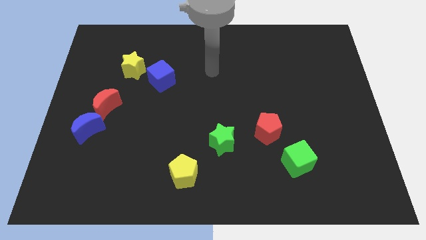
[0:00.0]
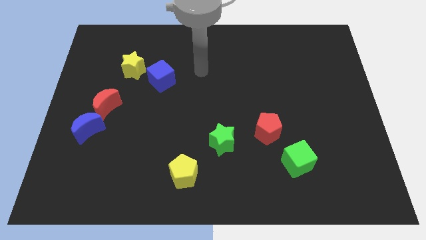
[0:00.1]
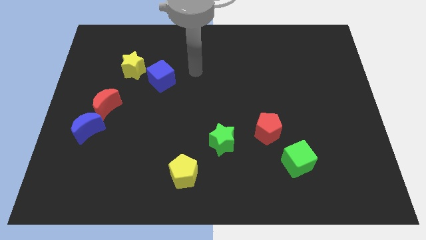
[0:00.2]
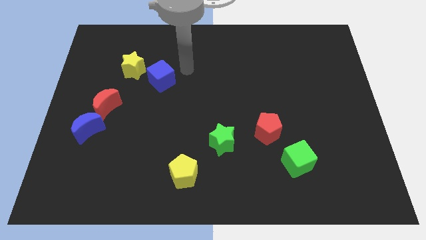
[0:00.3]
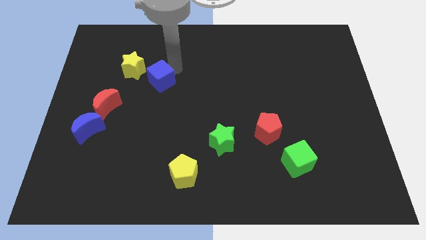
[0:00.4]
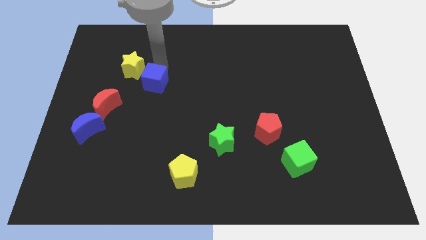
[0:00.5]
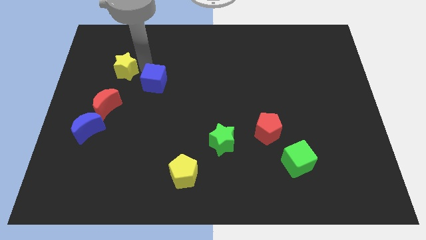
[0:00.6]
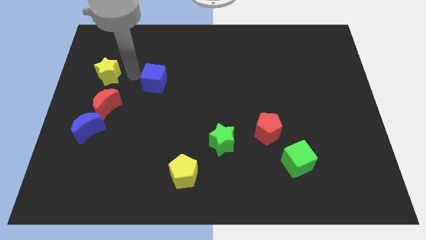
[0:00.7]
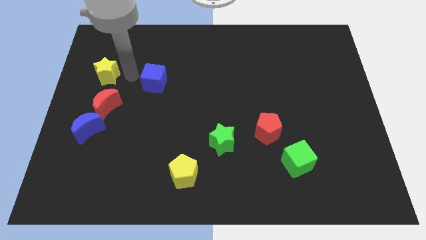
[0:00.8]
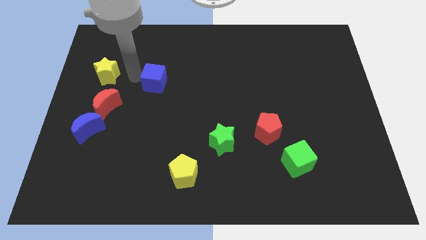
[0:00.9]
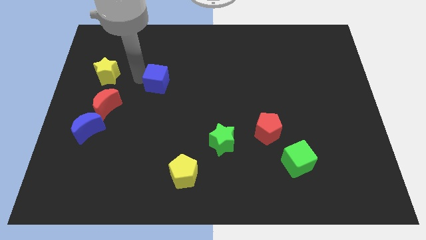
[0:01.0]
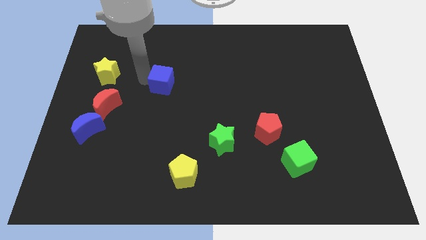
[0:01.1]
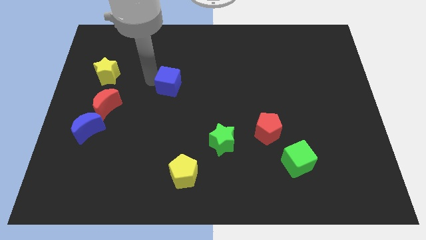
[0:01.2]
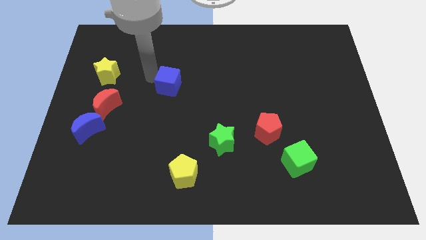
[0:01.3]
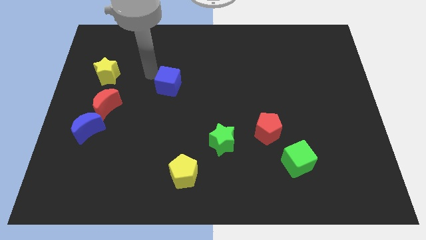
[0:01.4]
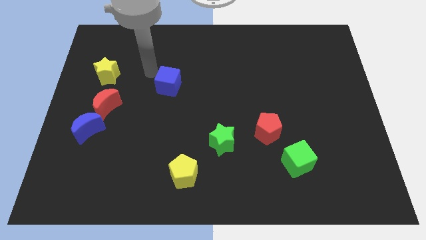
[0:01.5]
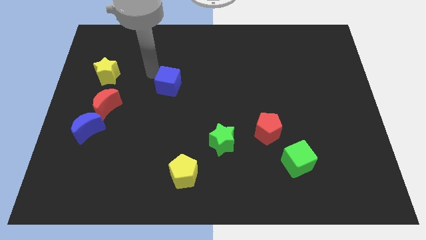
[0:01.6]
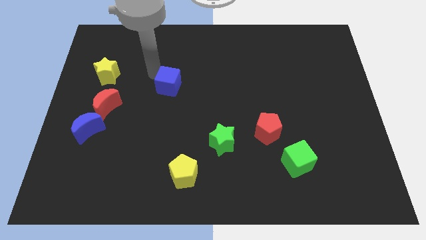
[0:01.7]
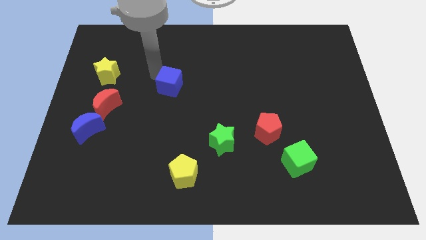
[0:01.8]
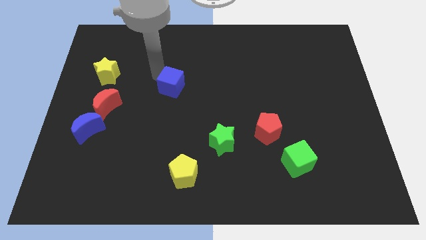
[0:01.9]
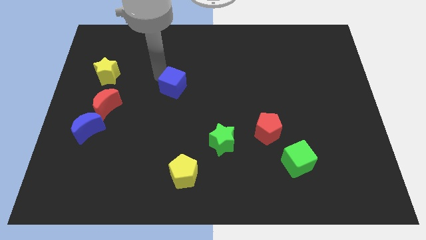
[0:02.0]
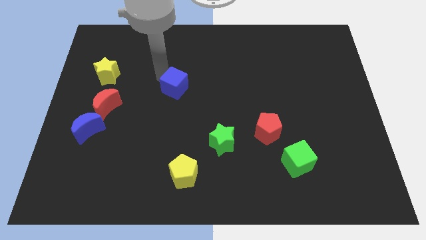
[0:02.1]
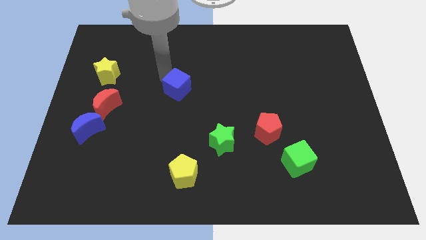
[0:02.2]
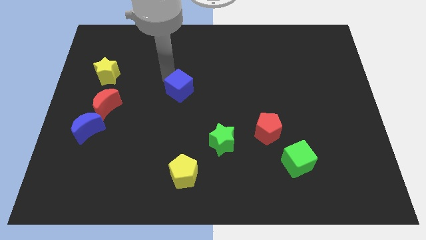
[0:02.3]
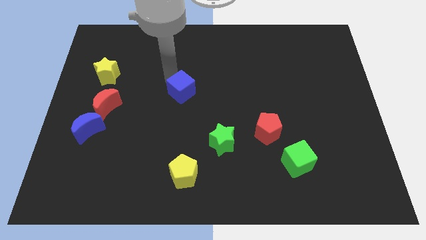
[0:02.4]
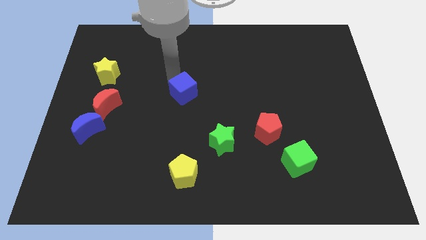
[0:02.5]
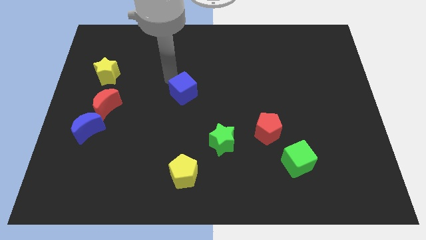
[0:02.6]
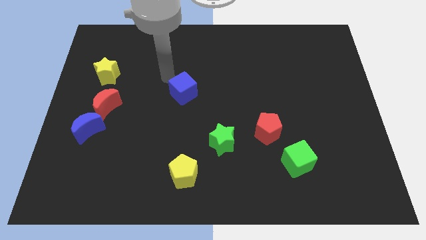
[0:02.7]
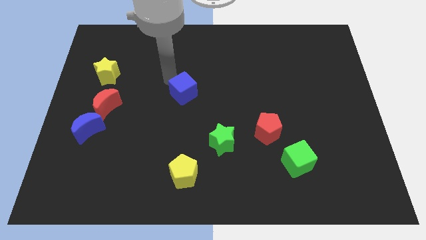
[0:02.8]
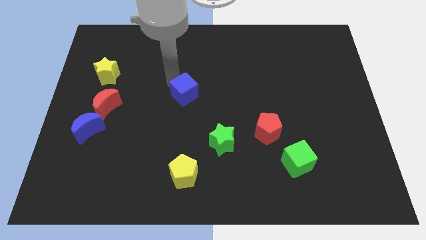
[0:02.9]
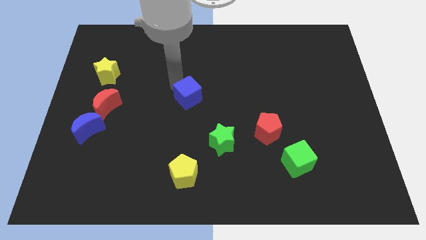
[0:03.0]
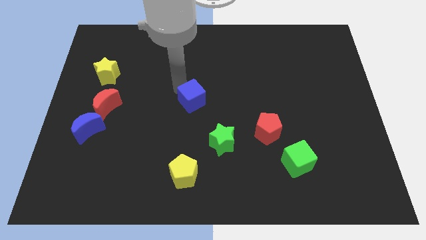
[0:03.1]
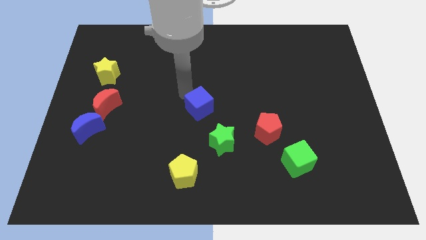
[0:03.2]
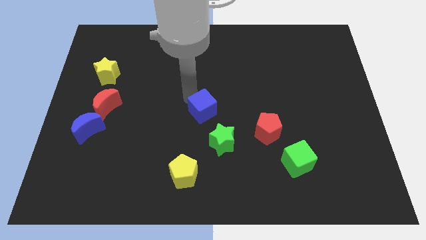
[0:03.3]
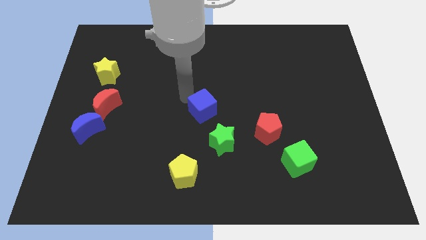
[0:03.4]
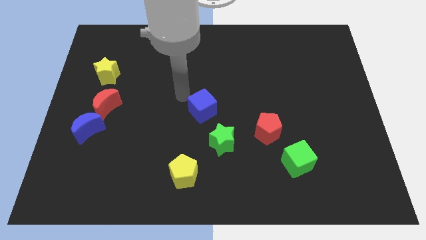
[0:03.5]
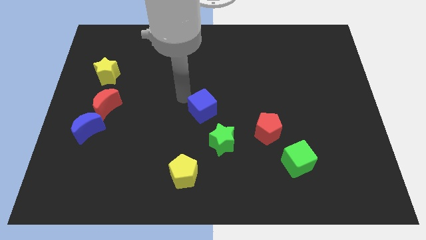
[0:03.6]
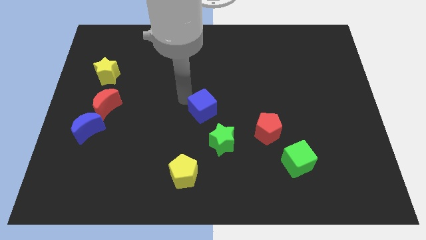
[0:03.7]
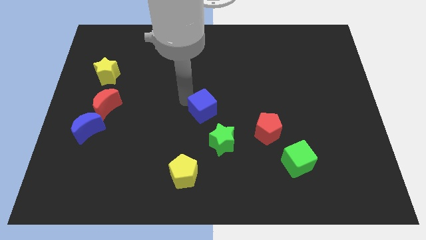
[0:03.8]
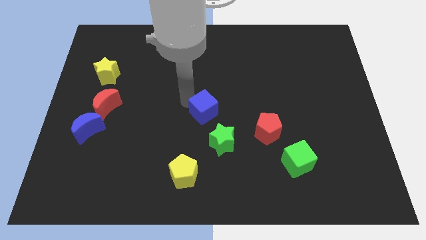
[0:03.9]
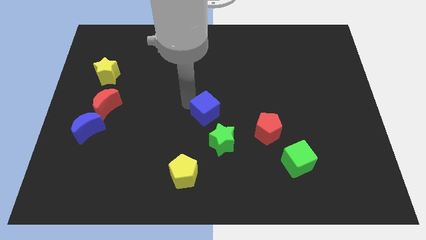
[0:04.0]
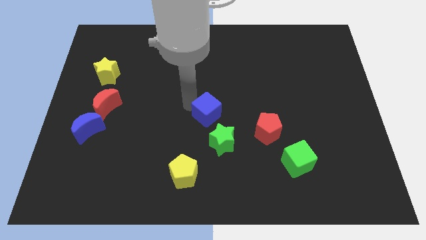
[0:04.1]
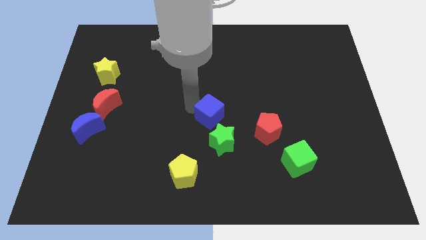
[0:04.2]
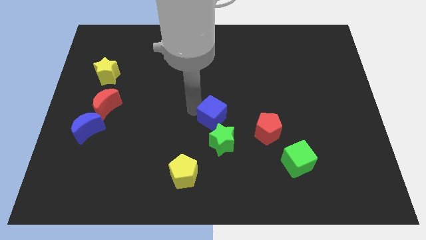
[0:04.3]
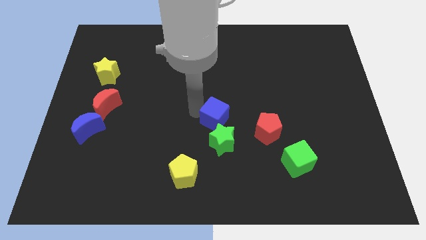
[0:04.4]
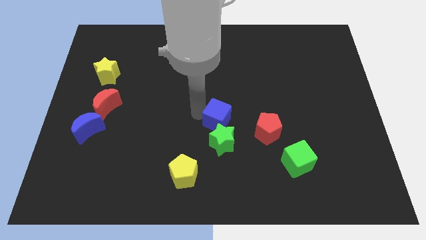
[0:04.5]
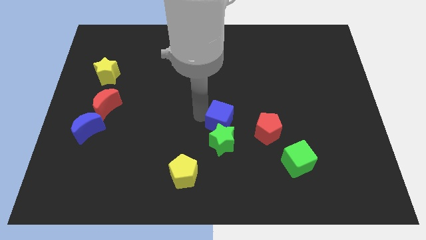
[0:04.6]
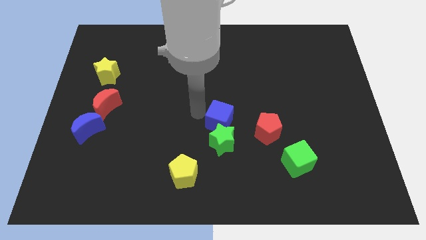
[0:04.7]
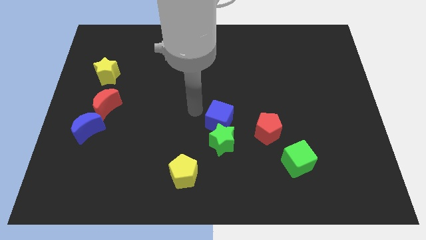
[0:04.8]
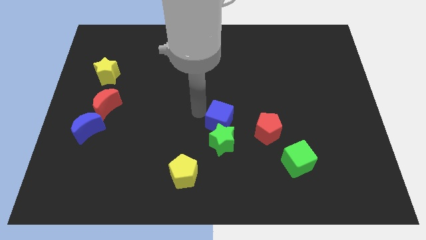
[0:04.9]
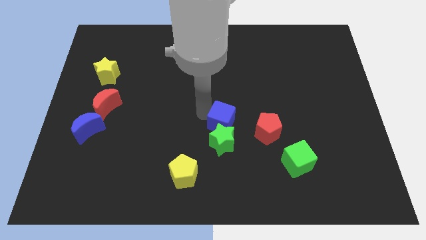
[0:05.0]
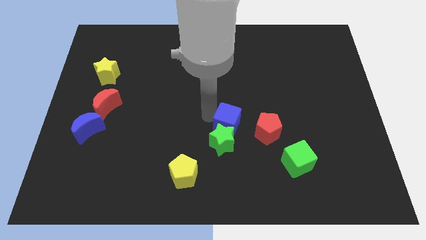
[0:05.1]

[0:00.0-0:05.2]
move the blue cube diagonally downwards and right

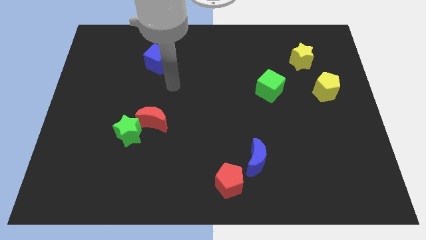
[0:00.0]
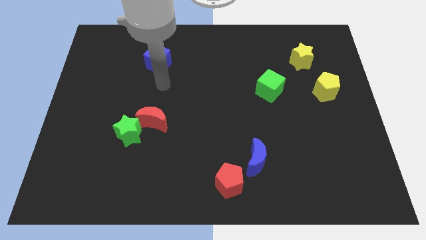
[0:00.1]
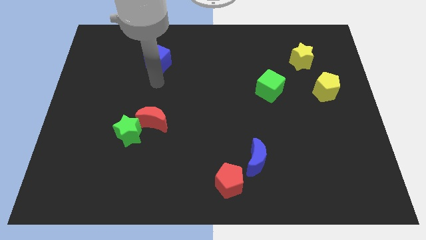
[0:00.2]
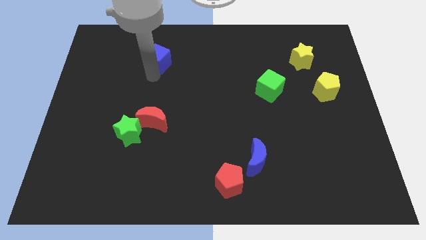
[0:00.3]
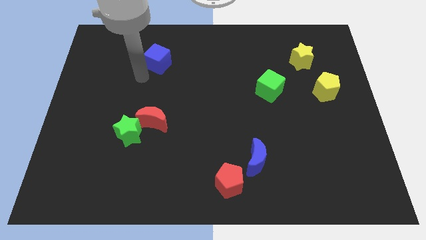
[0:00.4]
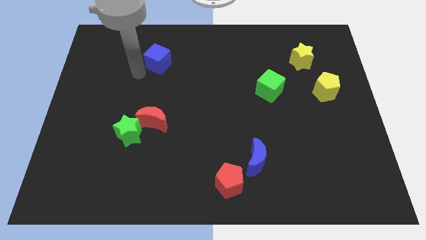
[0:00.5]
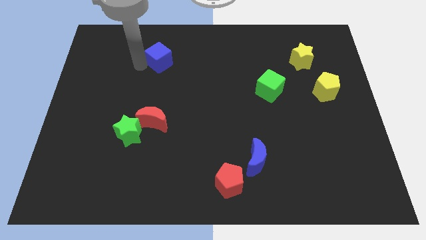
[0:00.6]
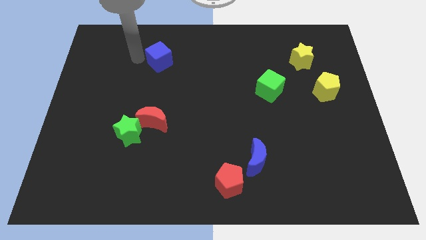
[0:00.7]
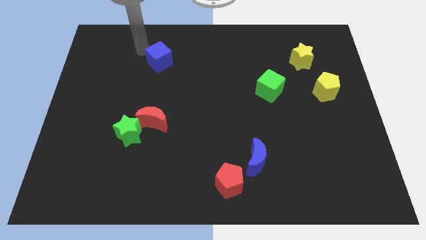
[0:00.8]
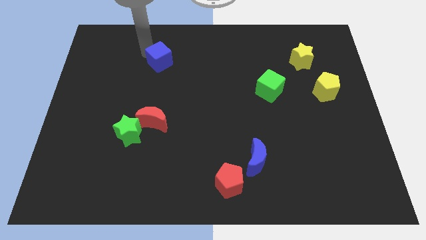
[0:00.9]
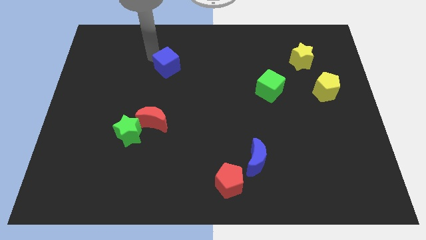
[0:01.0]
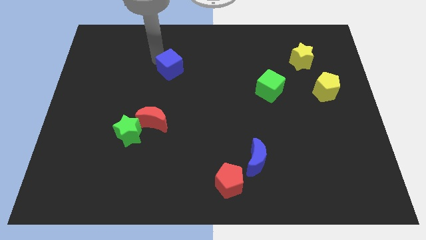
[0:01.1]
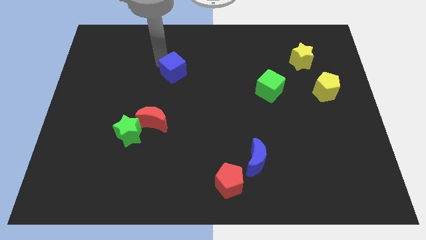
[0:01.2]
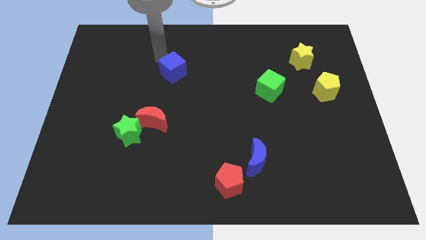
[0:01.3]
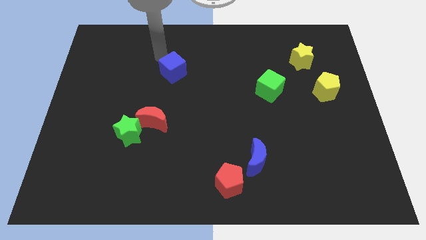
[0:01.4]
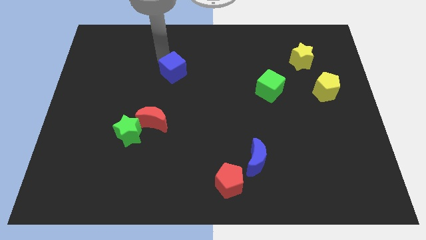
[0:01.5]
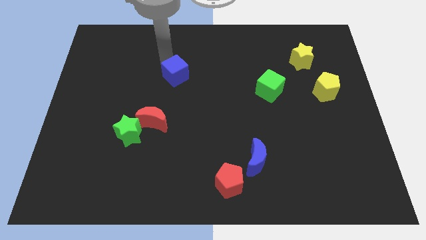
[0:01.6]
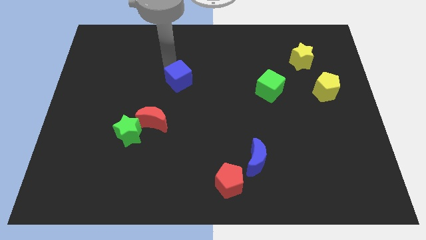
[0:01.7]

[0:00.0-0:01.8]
slide the blue cube slightly diagonally downwards and right

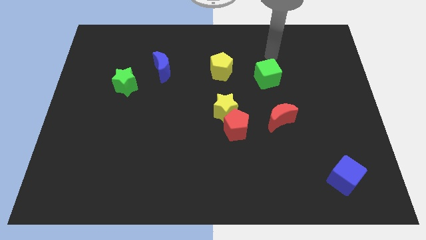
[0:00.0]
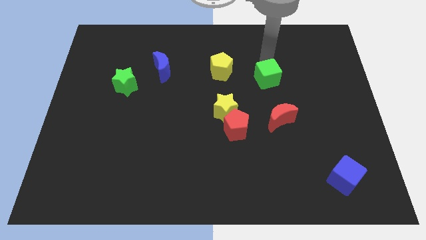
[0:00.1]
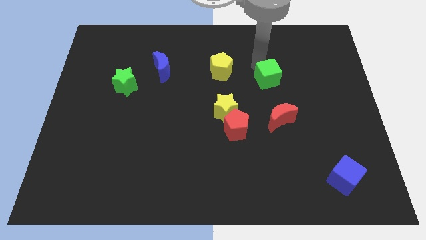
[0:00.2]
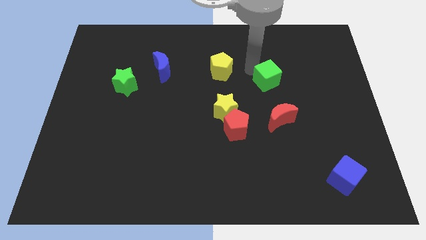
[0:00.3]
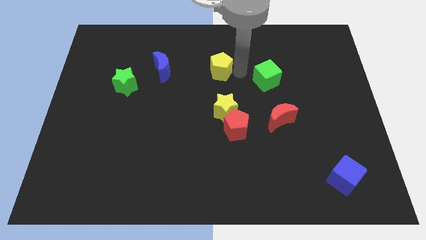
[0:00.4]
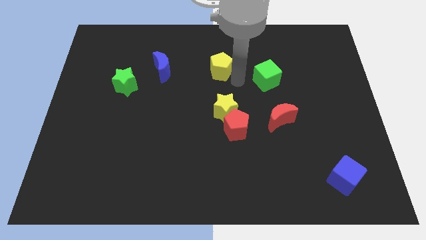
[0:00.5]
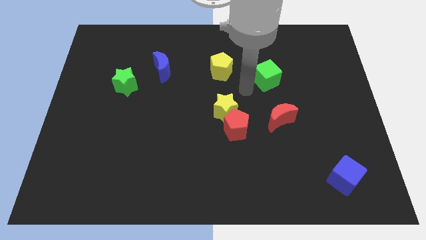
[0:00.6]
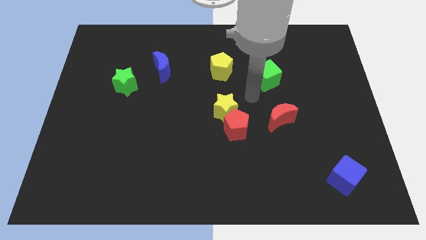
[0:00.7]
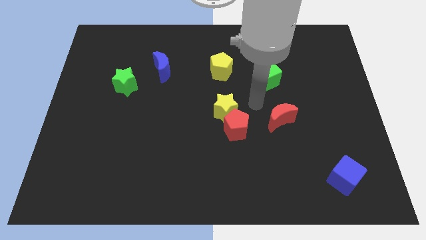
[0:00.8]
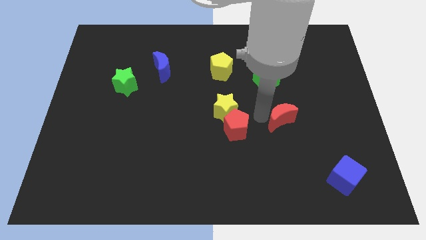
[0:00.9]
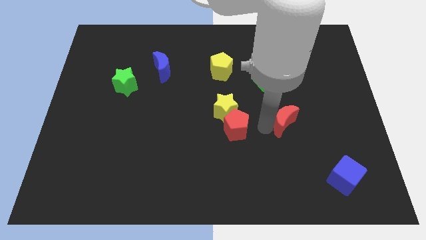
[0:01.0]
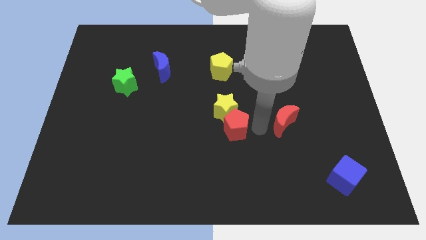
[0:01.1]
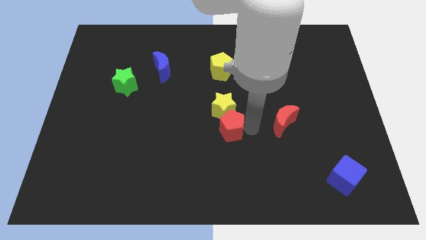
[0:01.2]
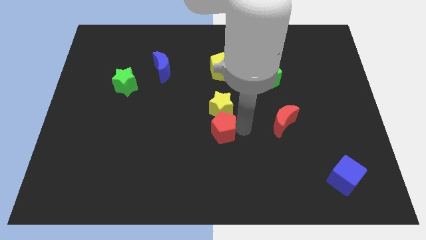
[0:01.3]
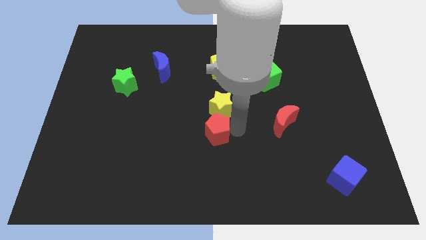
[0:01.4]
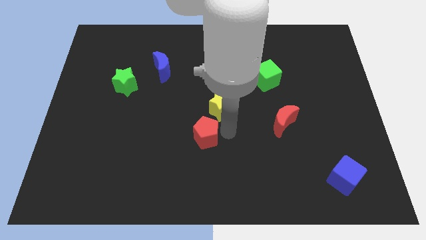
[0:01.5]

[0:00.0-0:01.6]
push the red pentagon to the left slightly
